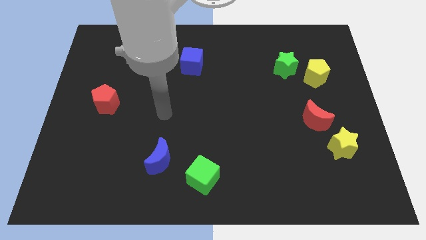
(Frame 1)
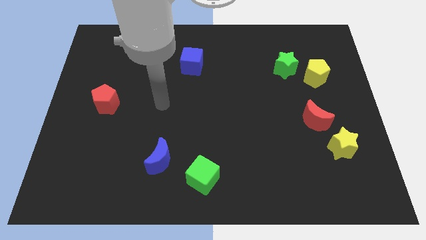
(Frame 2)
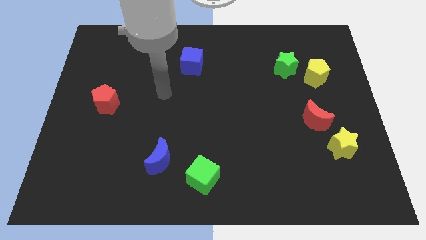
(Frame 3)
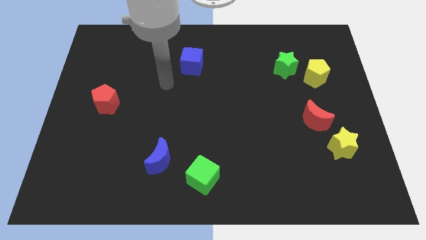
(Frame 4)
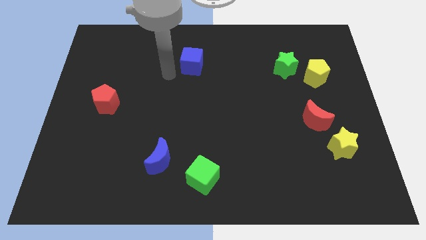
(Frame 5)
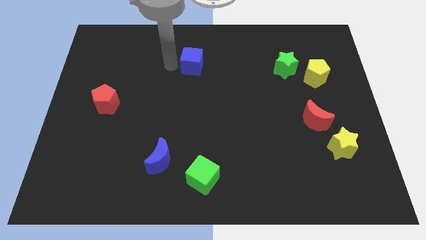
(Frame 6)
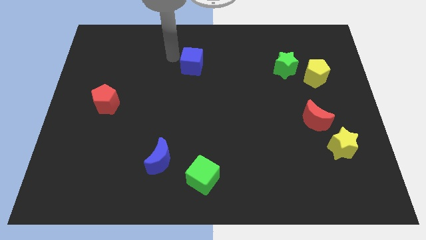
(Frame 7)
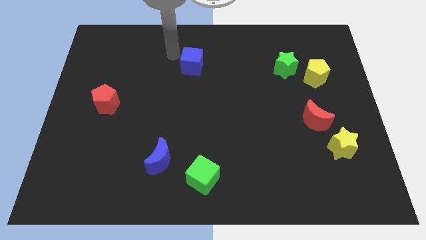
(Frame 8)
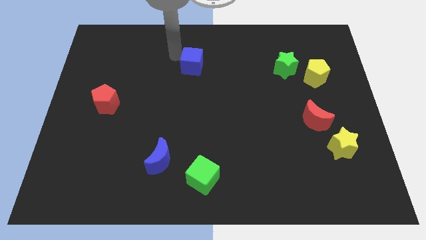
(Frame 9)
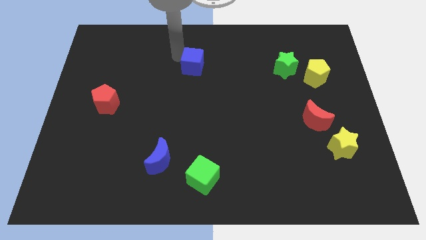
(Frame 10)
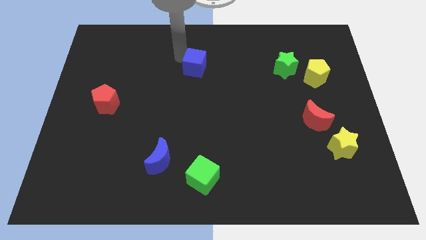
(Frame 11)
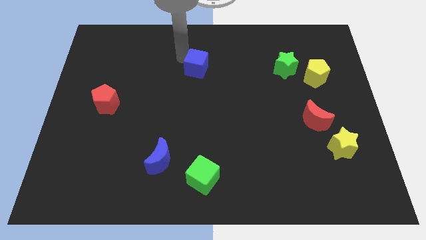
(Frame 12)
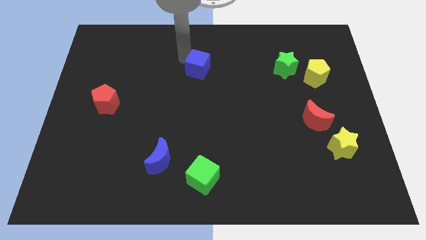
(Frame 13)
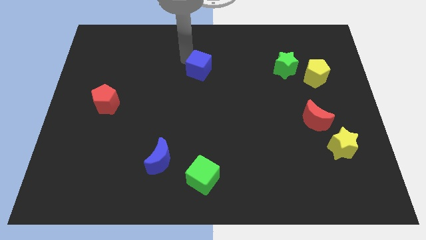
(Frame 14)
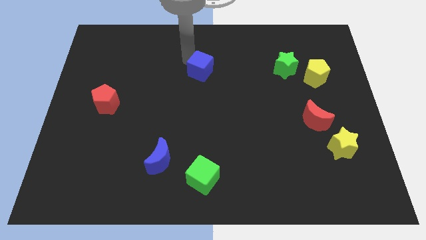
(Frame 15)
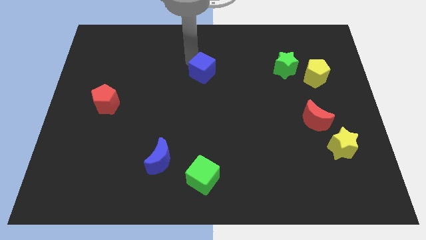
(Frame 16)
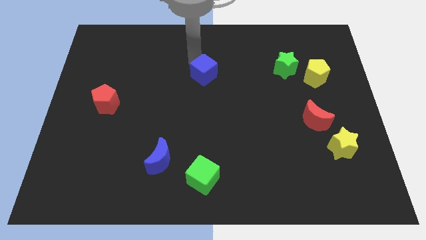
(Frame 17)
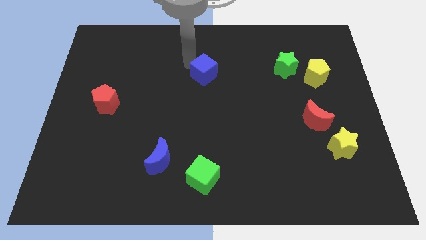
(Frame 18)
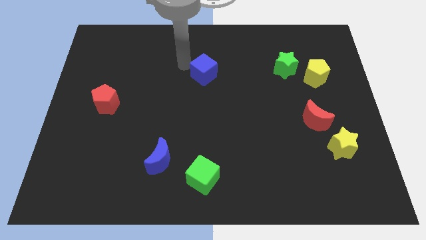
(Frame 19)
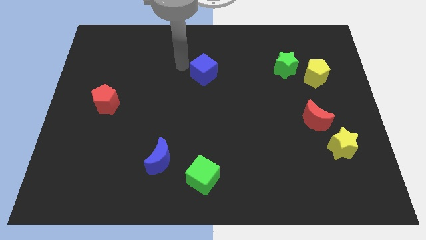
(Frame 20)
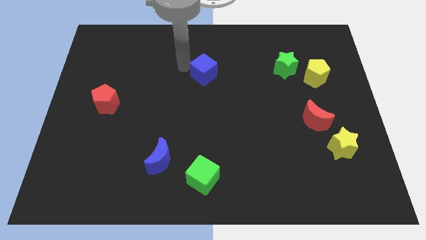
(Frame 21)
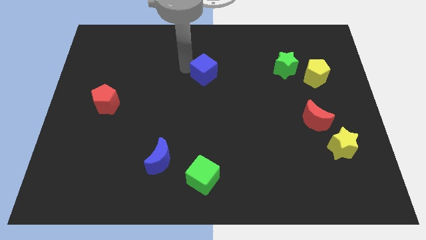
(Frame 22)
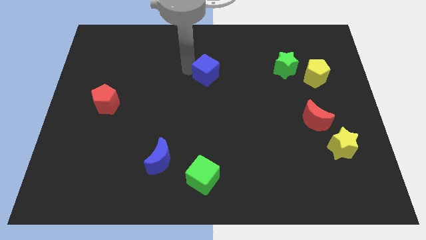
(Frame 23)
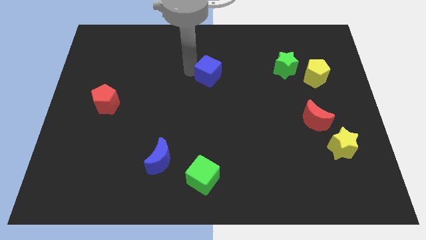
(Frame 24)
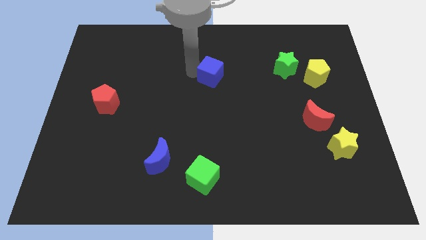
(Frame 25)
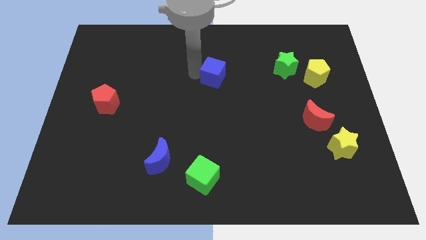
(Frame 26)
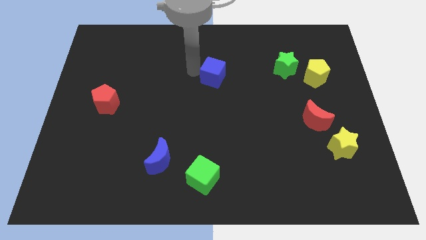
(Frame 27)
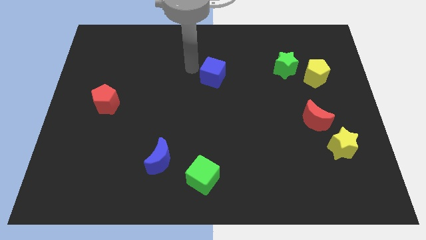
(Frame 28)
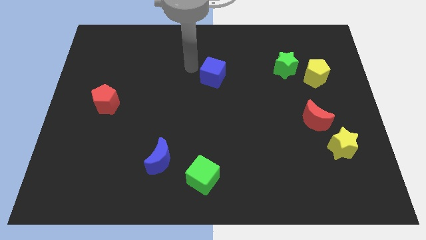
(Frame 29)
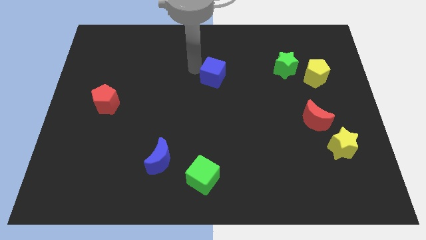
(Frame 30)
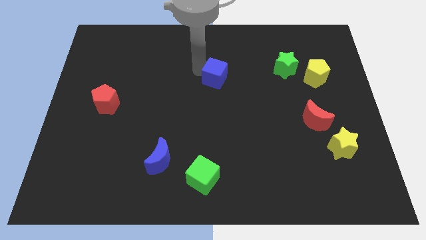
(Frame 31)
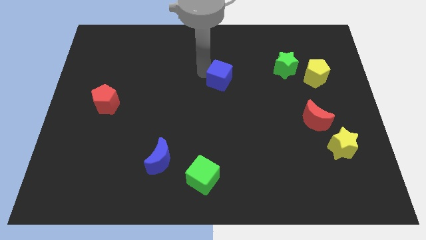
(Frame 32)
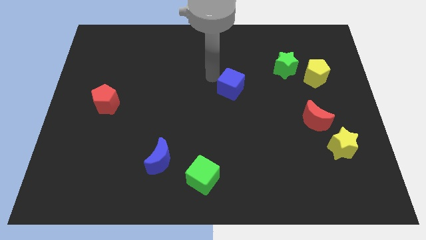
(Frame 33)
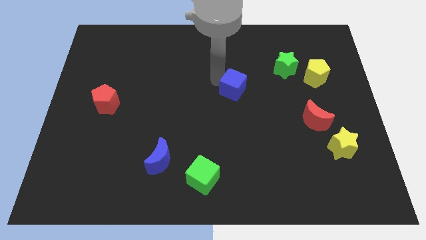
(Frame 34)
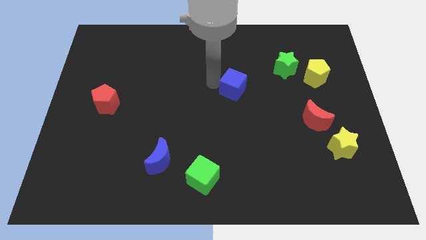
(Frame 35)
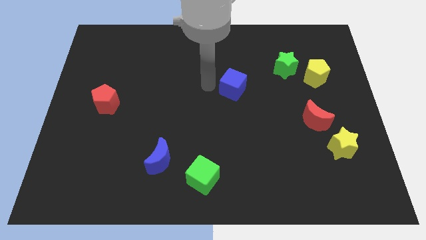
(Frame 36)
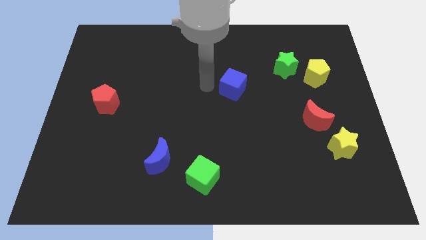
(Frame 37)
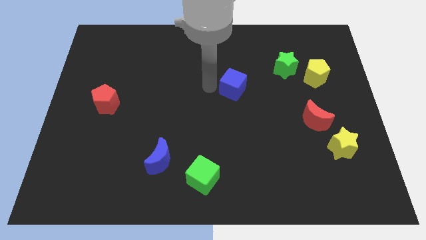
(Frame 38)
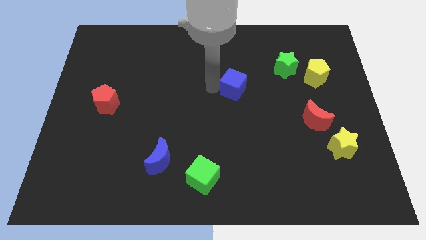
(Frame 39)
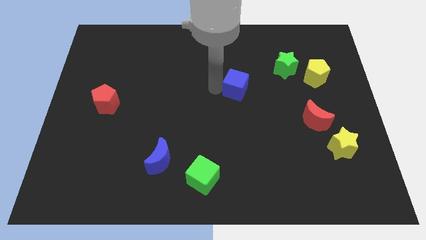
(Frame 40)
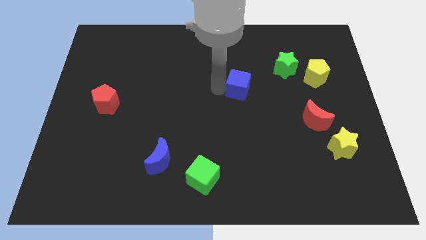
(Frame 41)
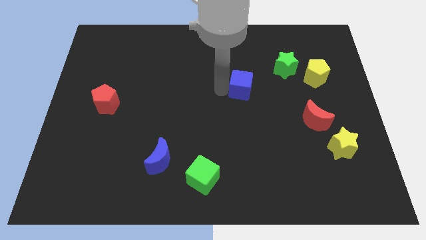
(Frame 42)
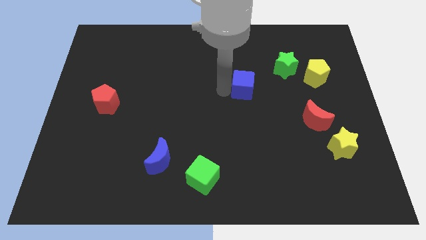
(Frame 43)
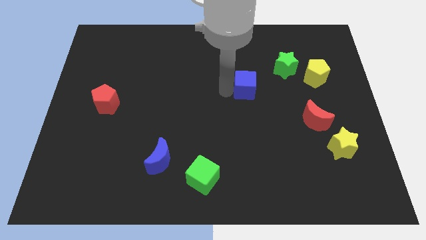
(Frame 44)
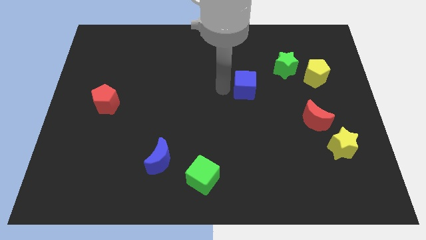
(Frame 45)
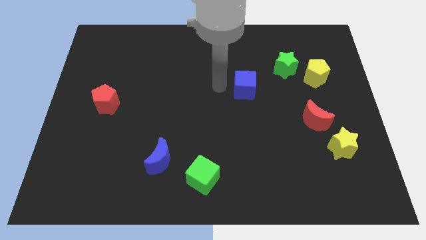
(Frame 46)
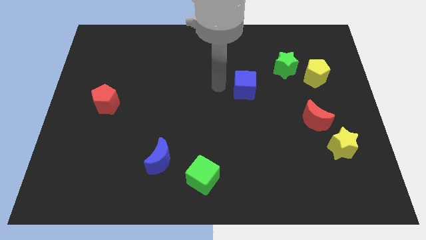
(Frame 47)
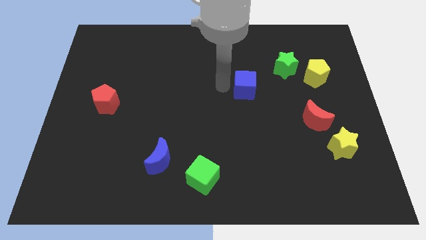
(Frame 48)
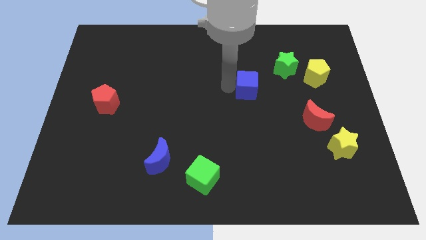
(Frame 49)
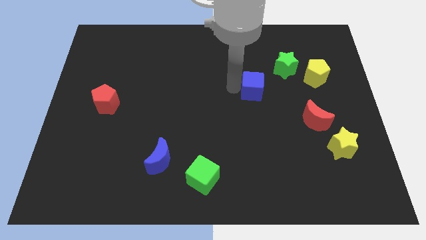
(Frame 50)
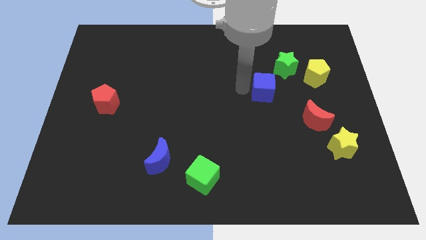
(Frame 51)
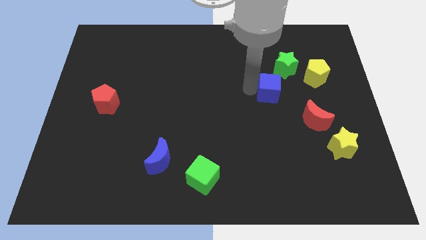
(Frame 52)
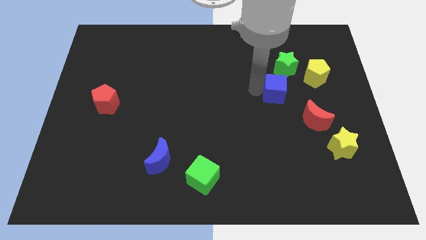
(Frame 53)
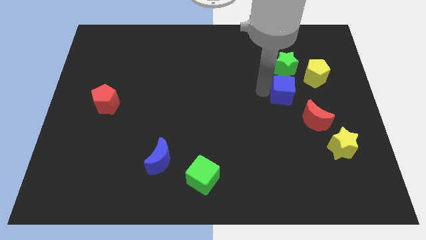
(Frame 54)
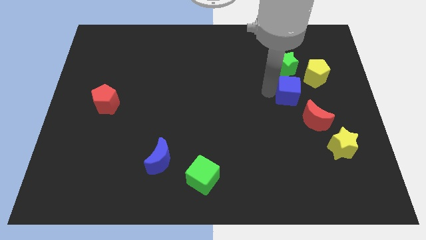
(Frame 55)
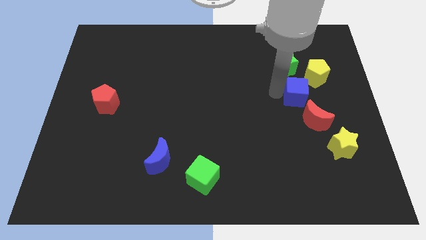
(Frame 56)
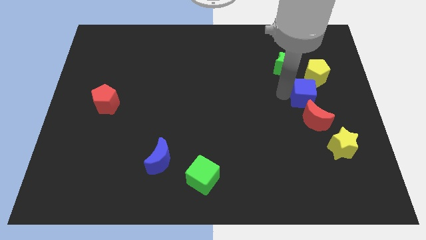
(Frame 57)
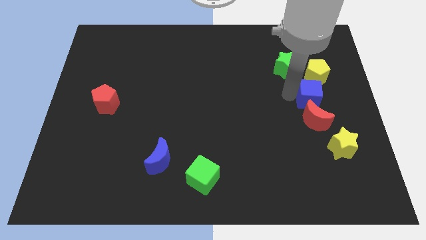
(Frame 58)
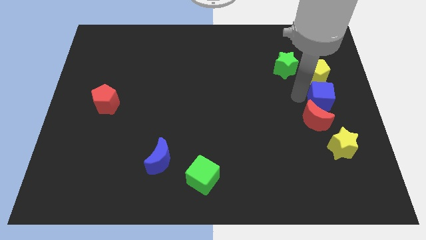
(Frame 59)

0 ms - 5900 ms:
push the blue cube to the center right

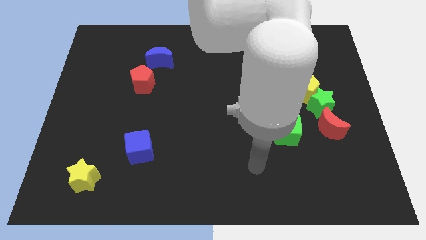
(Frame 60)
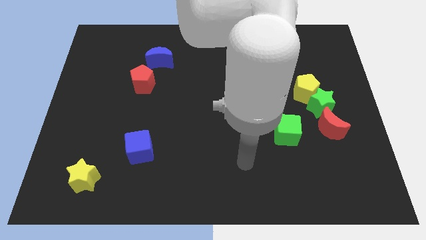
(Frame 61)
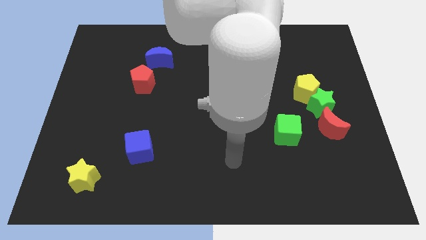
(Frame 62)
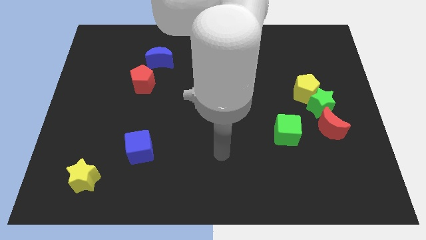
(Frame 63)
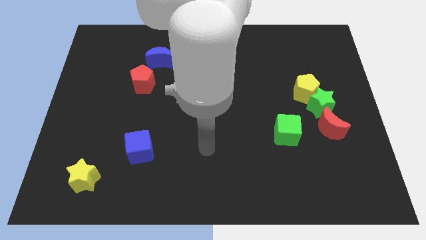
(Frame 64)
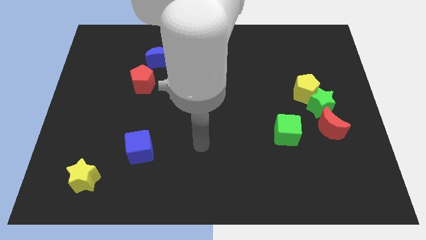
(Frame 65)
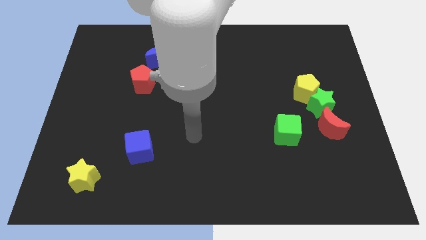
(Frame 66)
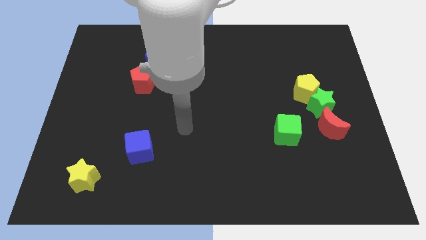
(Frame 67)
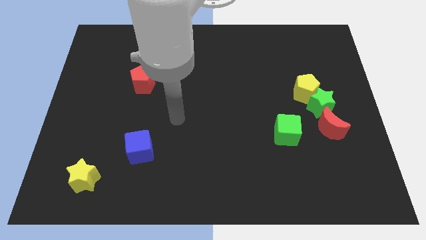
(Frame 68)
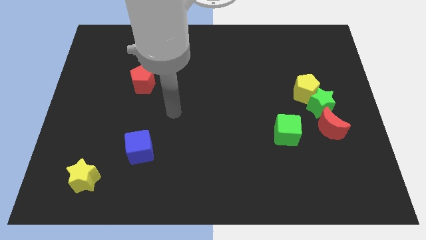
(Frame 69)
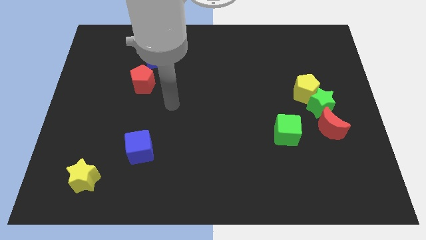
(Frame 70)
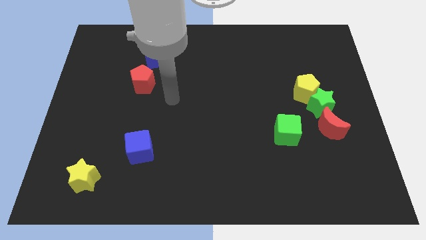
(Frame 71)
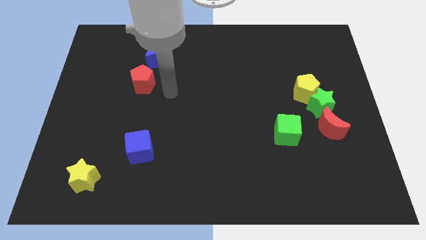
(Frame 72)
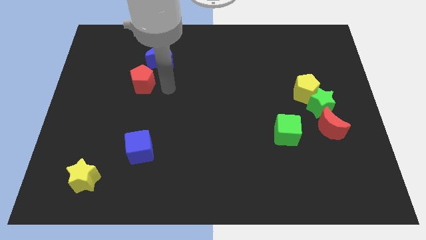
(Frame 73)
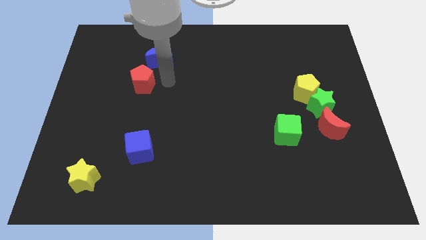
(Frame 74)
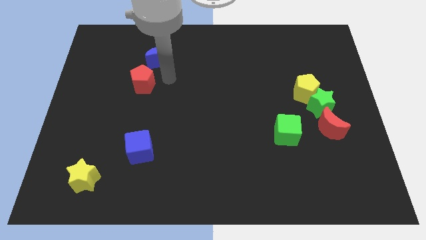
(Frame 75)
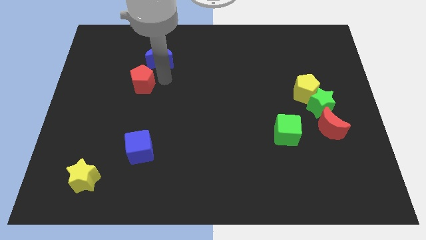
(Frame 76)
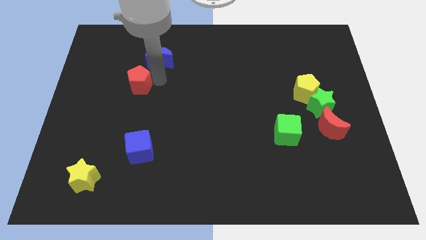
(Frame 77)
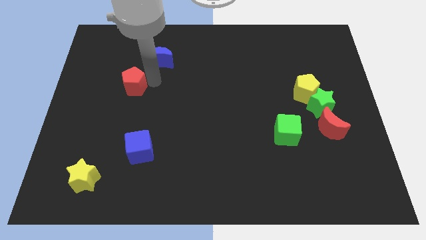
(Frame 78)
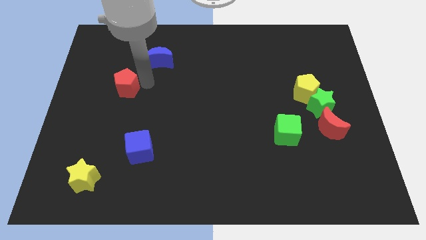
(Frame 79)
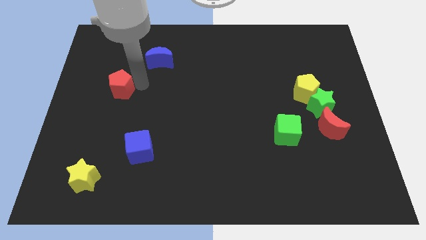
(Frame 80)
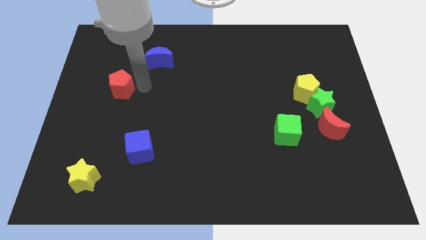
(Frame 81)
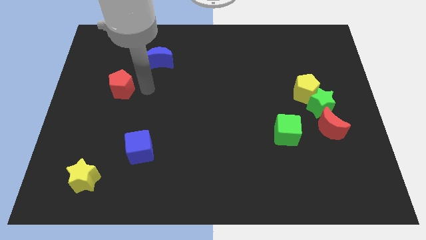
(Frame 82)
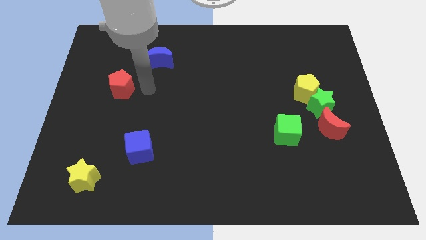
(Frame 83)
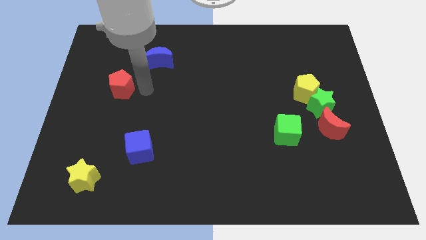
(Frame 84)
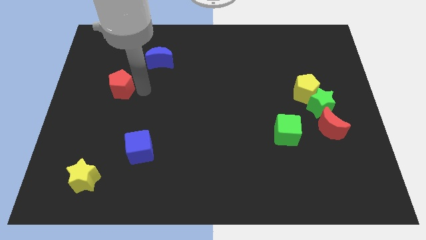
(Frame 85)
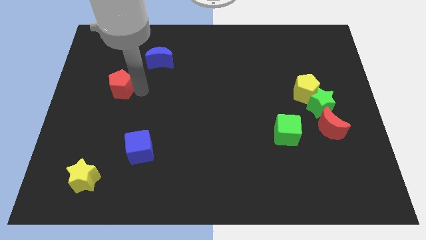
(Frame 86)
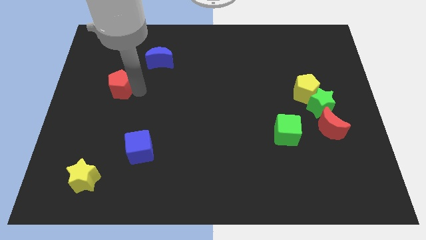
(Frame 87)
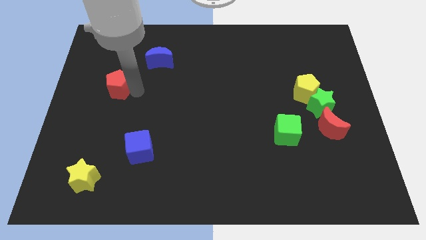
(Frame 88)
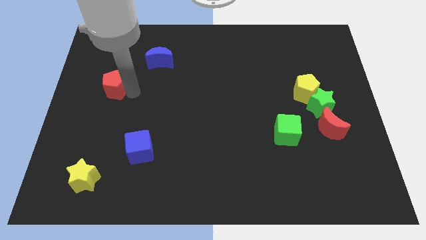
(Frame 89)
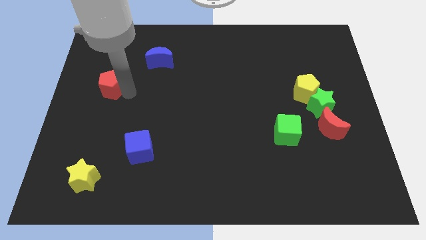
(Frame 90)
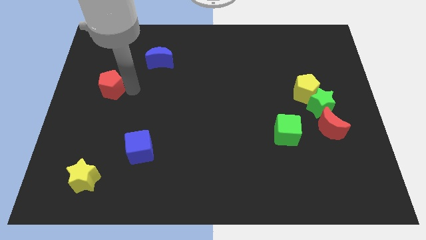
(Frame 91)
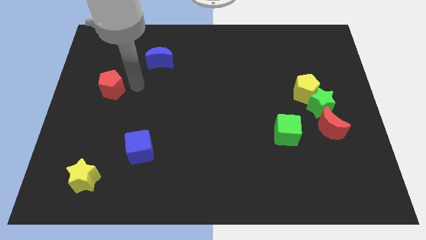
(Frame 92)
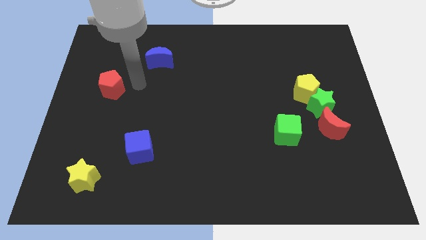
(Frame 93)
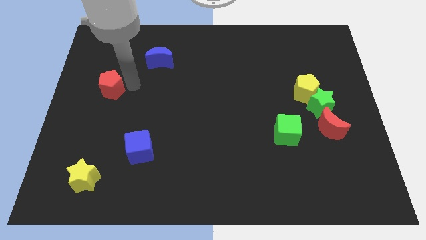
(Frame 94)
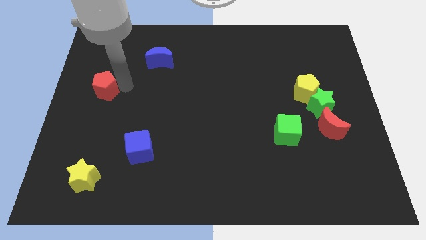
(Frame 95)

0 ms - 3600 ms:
move the red pentagon to the center left
